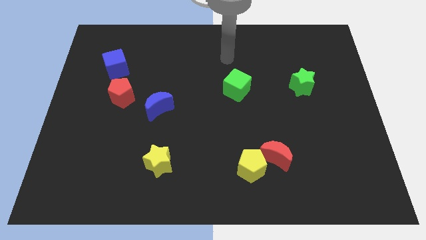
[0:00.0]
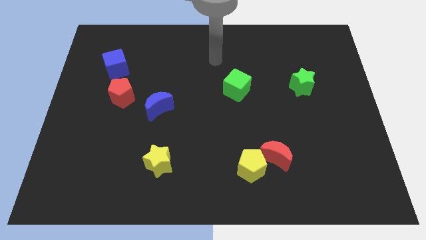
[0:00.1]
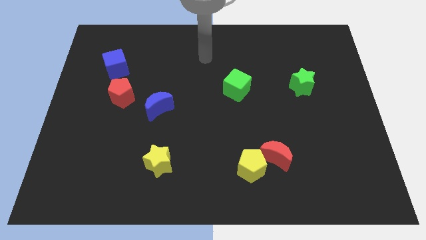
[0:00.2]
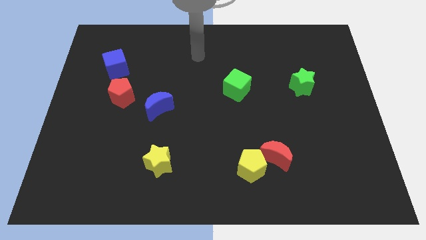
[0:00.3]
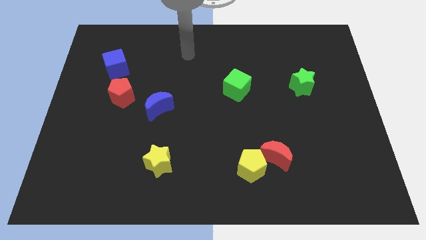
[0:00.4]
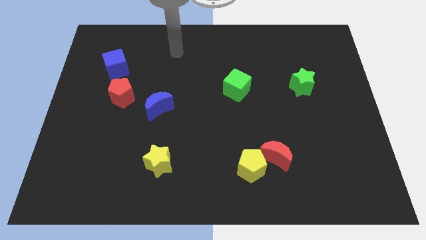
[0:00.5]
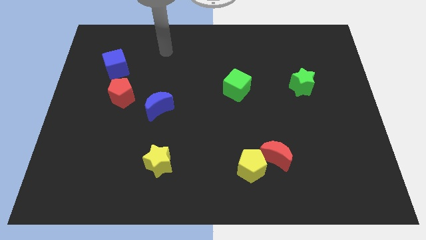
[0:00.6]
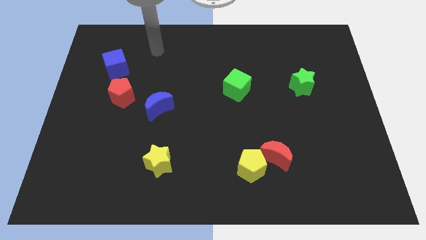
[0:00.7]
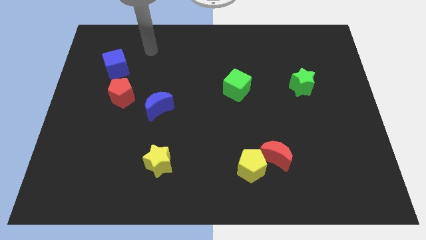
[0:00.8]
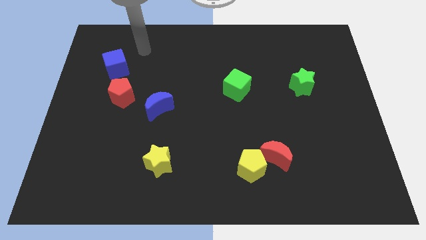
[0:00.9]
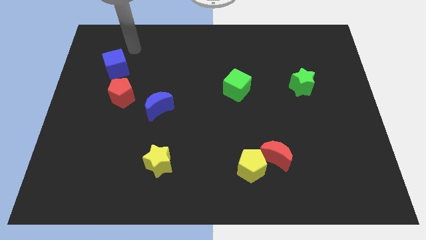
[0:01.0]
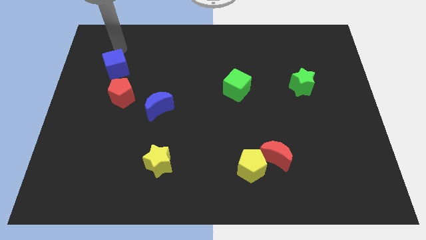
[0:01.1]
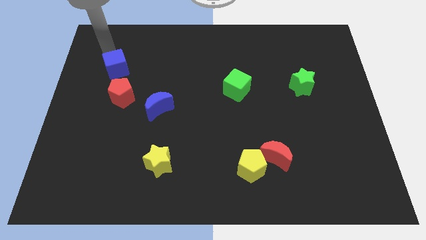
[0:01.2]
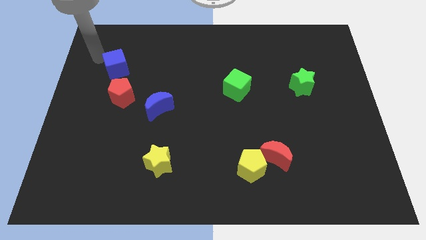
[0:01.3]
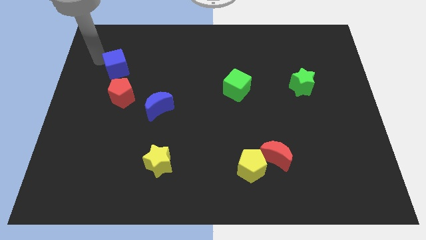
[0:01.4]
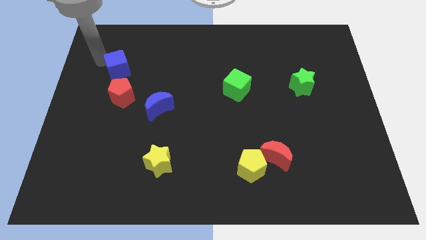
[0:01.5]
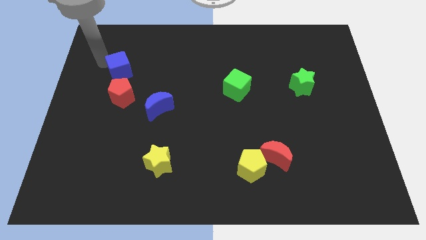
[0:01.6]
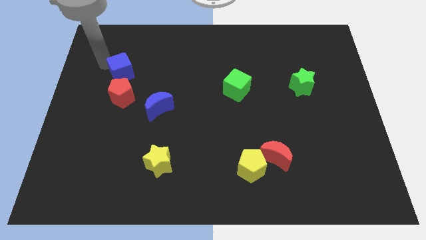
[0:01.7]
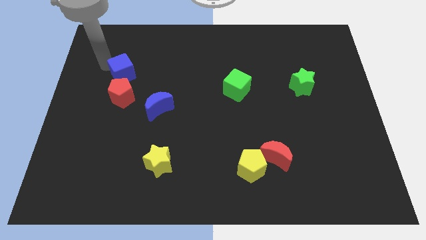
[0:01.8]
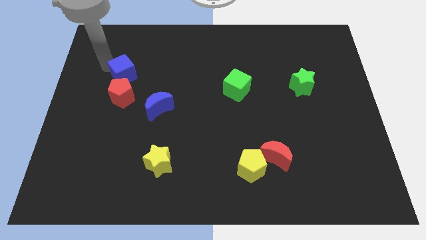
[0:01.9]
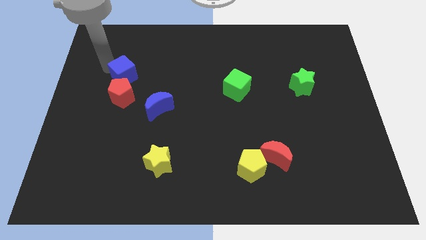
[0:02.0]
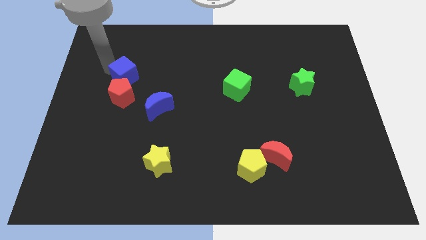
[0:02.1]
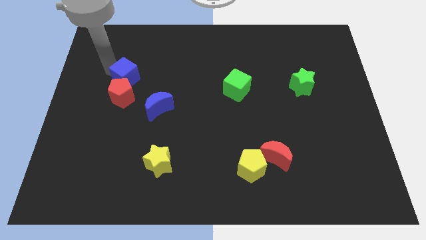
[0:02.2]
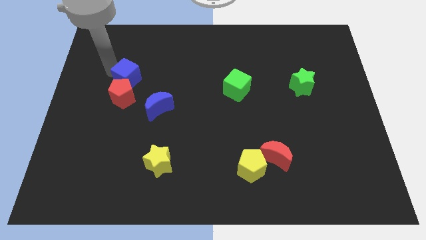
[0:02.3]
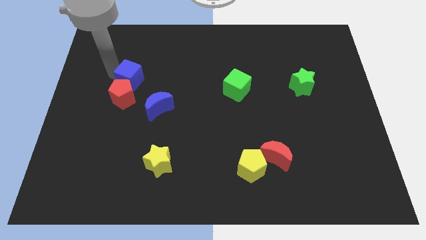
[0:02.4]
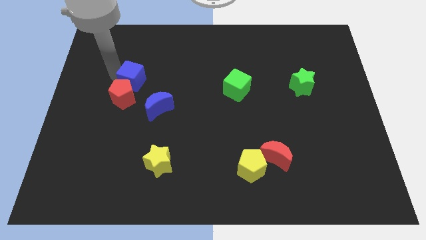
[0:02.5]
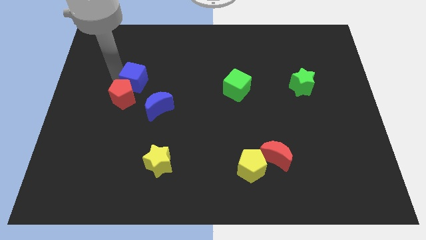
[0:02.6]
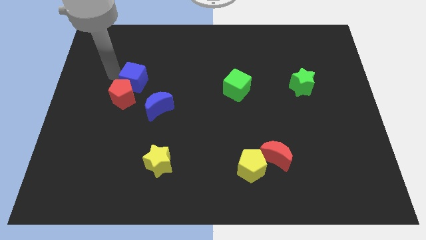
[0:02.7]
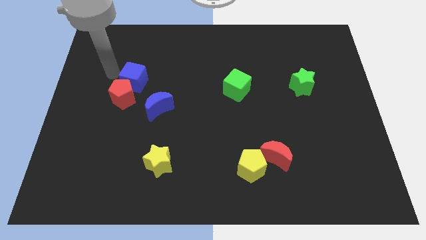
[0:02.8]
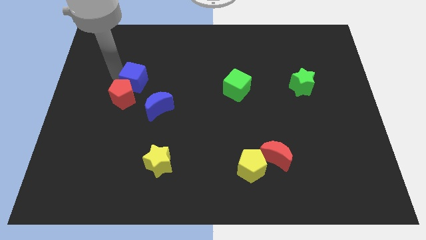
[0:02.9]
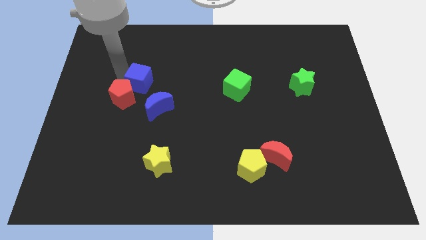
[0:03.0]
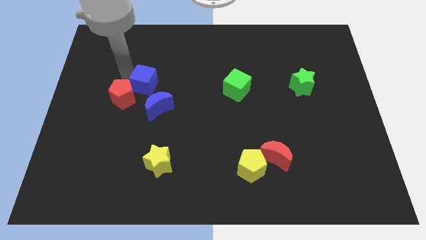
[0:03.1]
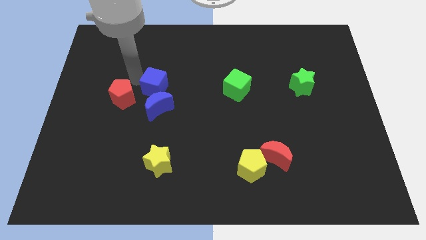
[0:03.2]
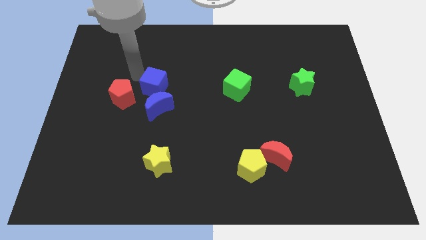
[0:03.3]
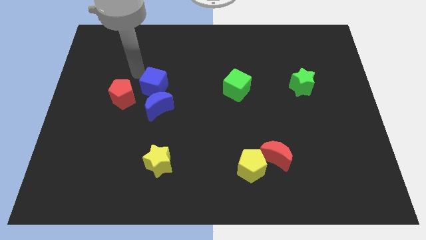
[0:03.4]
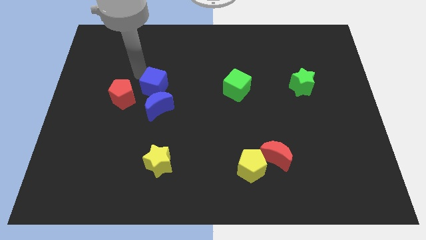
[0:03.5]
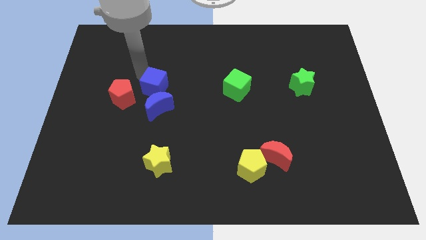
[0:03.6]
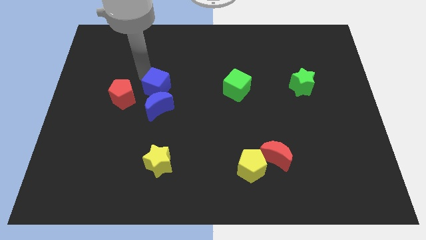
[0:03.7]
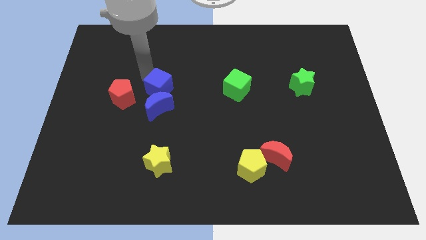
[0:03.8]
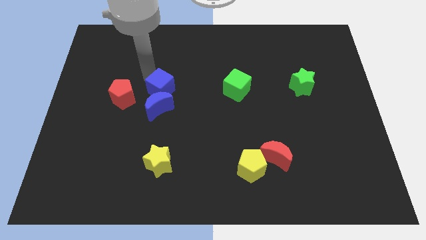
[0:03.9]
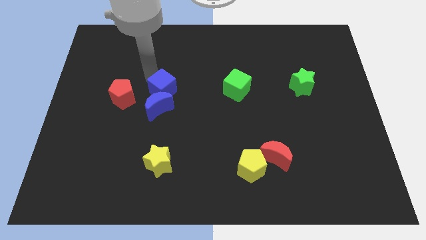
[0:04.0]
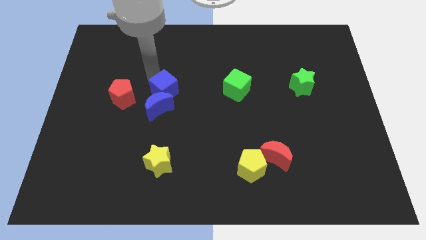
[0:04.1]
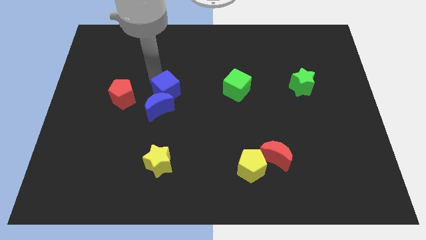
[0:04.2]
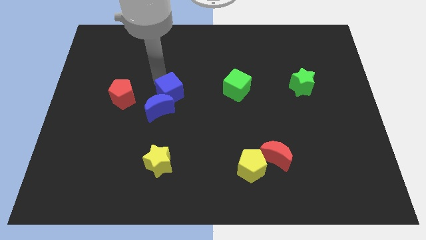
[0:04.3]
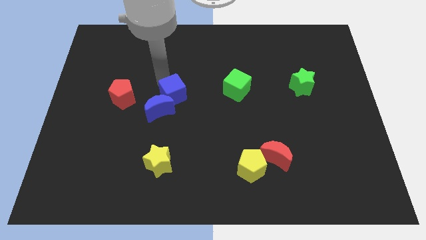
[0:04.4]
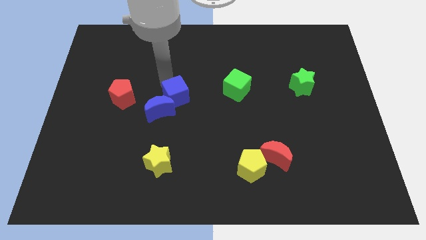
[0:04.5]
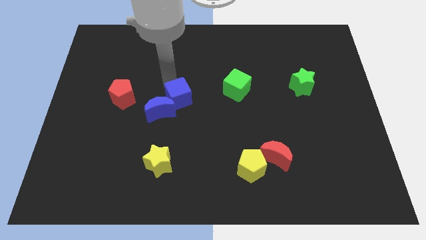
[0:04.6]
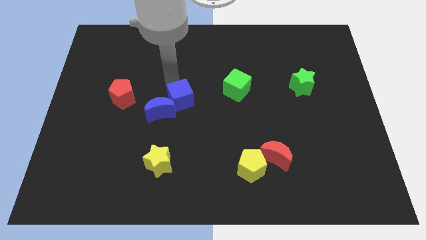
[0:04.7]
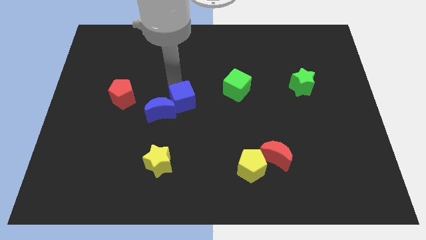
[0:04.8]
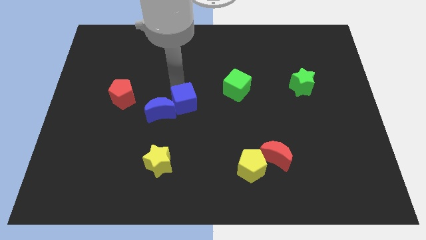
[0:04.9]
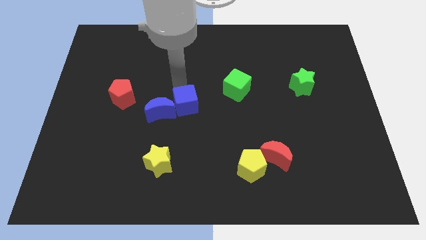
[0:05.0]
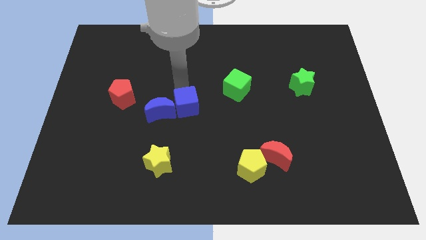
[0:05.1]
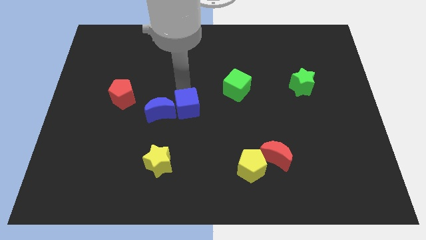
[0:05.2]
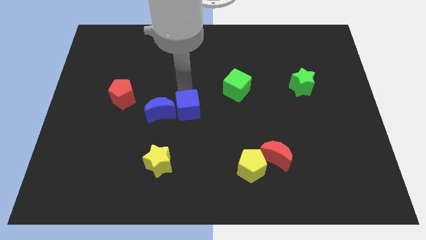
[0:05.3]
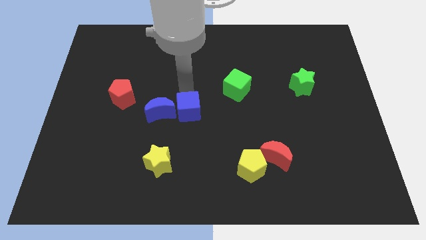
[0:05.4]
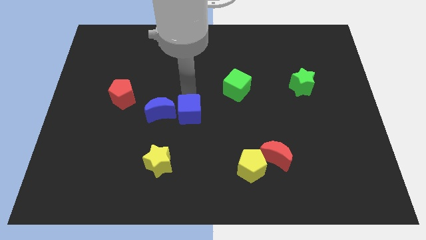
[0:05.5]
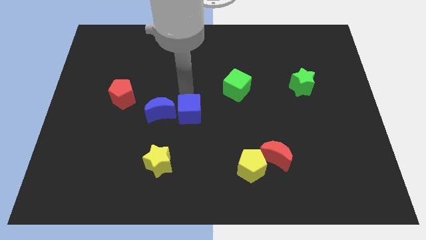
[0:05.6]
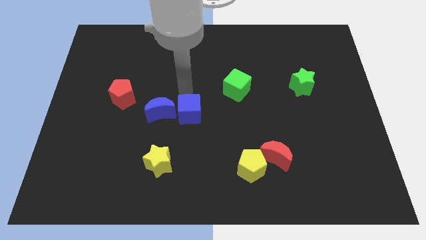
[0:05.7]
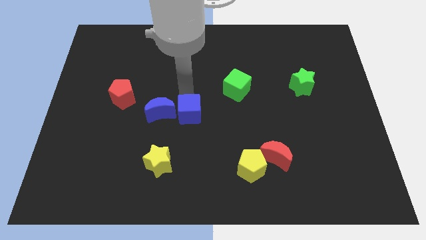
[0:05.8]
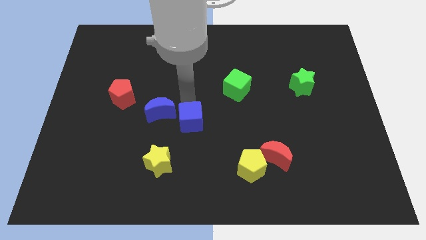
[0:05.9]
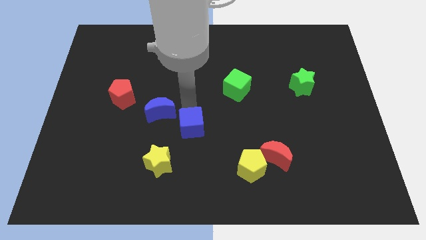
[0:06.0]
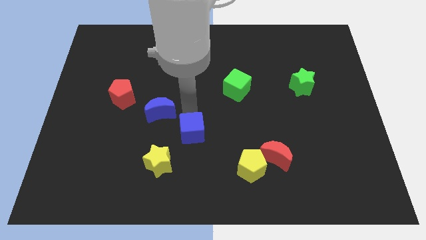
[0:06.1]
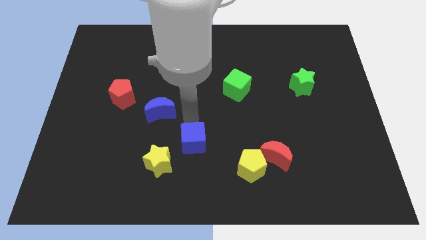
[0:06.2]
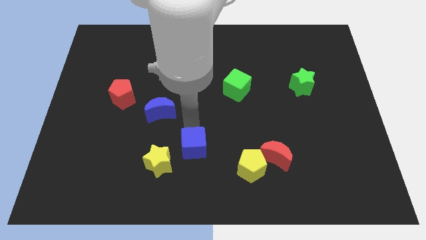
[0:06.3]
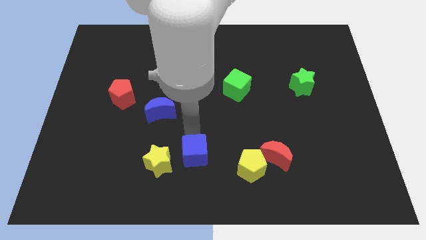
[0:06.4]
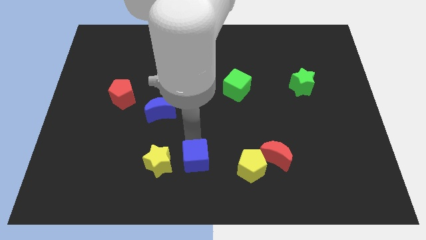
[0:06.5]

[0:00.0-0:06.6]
put the blue cube to the bottom
